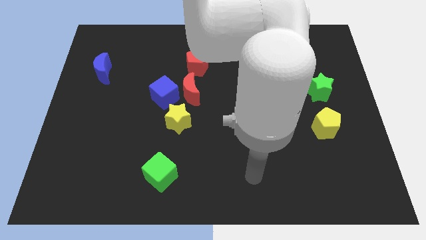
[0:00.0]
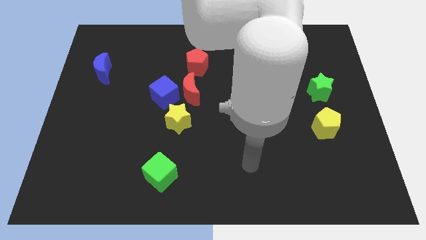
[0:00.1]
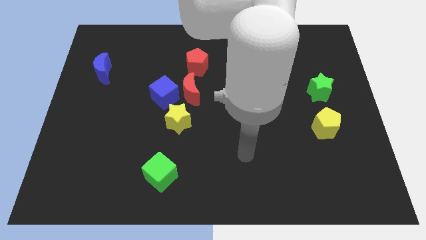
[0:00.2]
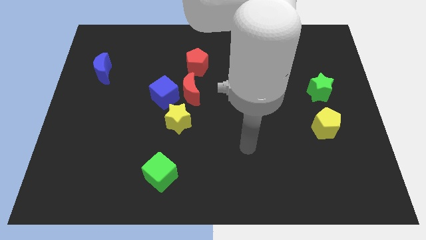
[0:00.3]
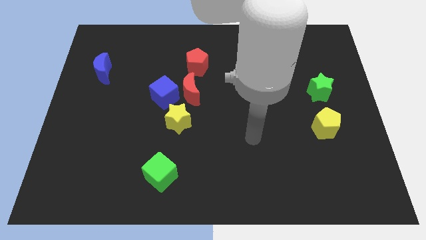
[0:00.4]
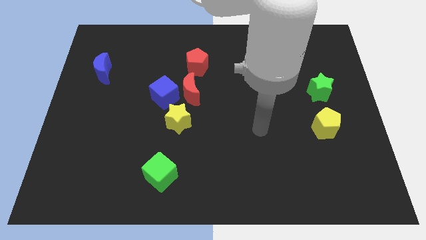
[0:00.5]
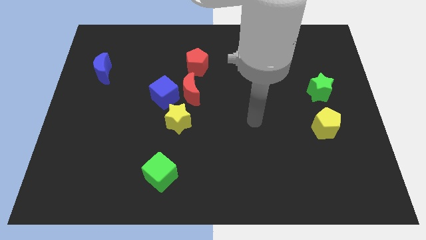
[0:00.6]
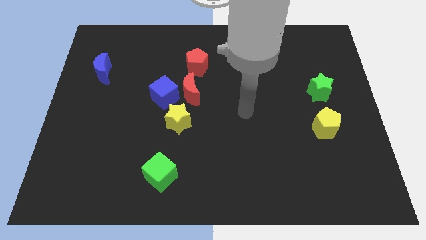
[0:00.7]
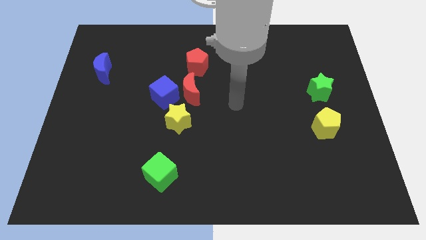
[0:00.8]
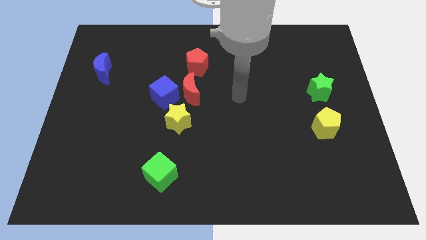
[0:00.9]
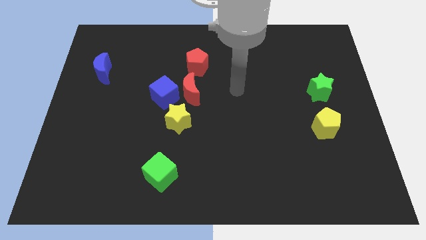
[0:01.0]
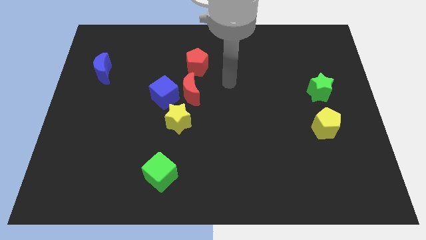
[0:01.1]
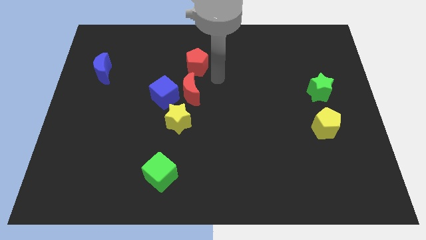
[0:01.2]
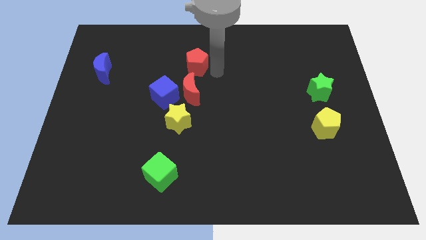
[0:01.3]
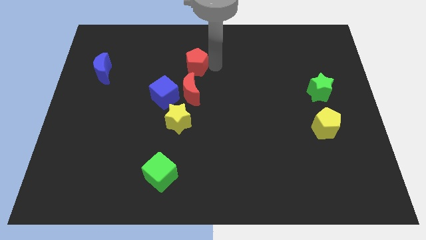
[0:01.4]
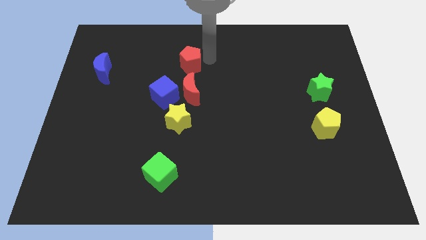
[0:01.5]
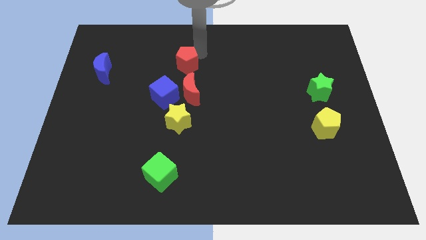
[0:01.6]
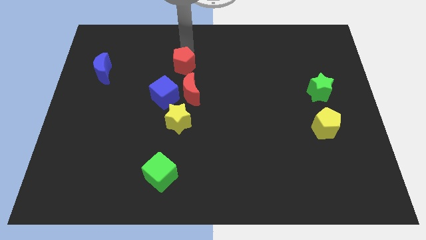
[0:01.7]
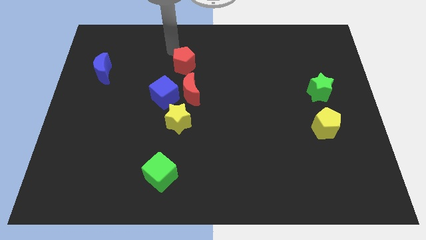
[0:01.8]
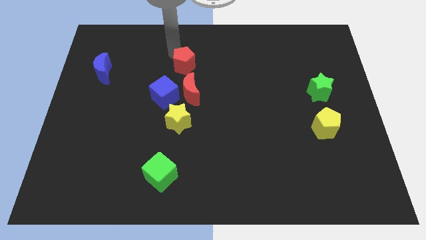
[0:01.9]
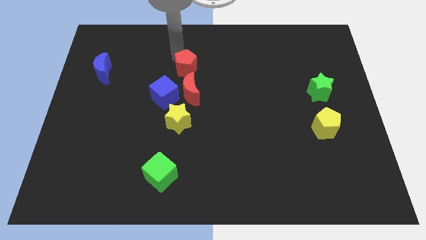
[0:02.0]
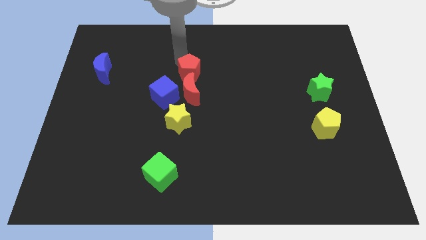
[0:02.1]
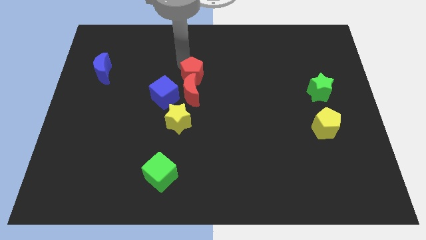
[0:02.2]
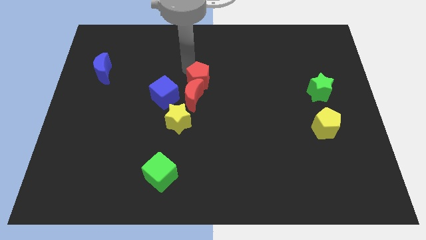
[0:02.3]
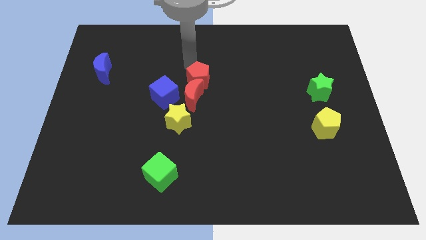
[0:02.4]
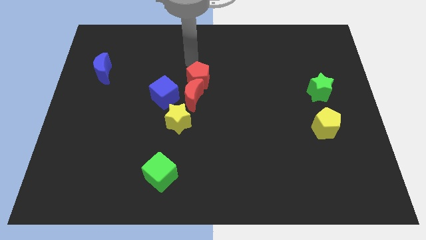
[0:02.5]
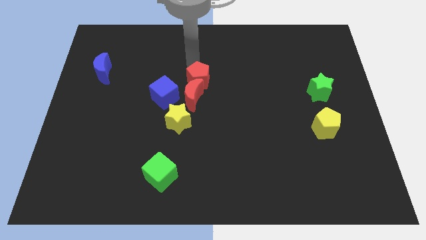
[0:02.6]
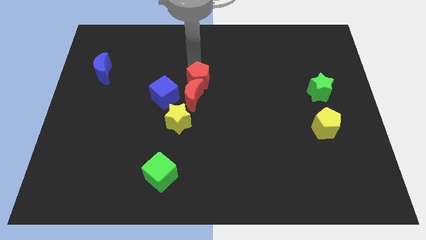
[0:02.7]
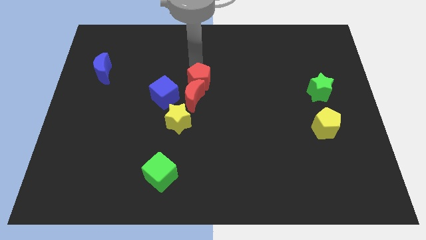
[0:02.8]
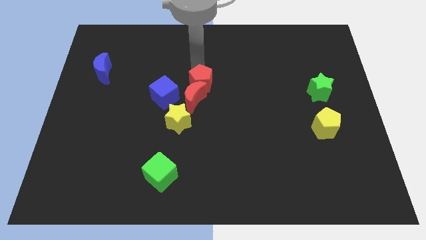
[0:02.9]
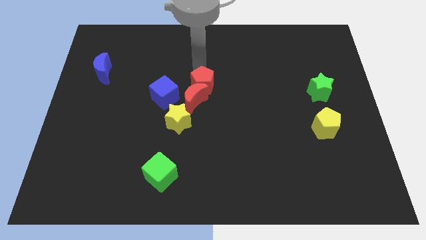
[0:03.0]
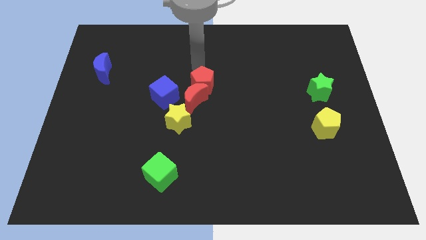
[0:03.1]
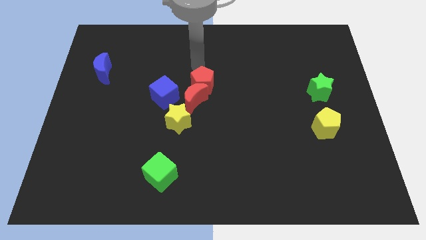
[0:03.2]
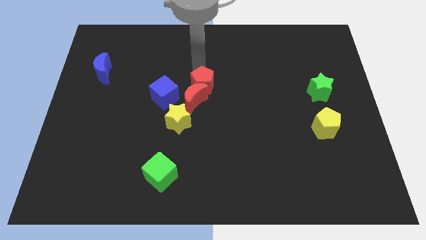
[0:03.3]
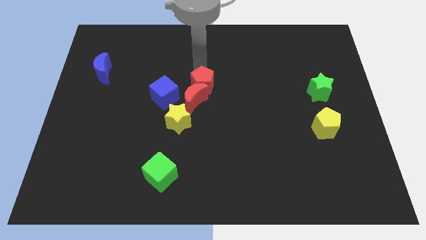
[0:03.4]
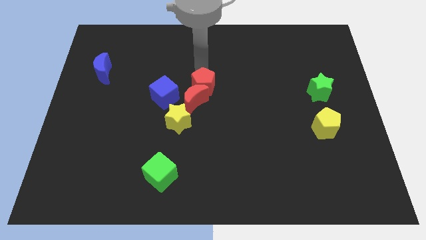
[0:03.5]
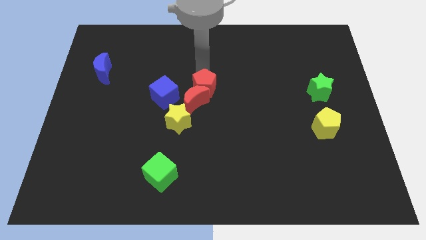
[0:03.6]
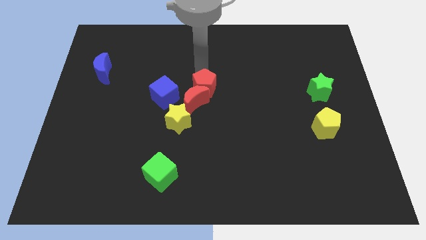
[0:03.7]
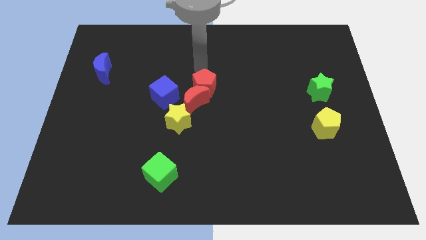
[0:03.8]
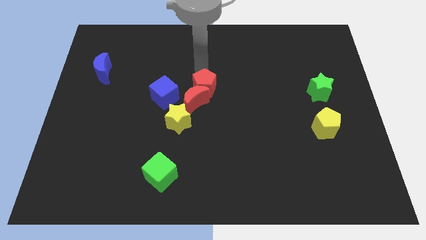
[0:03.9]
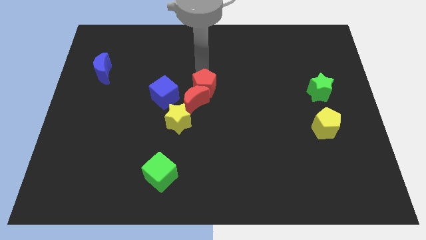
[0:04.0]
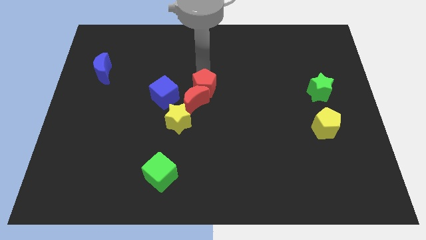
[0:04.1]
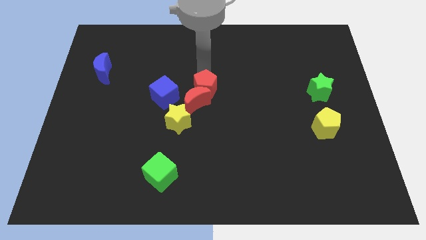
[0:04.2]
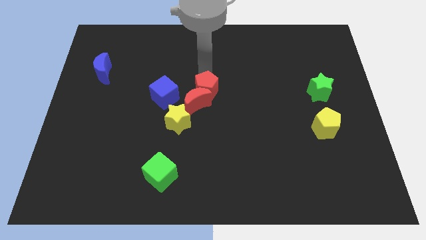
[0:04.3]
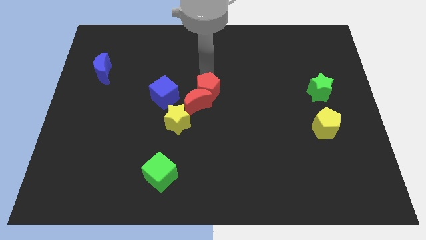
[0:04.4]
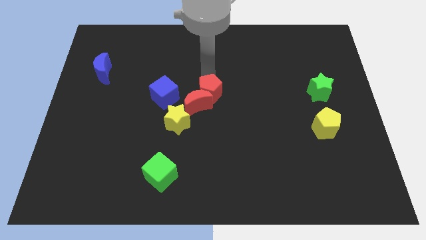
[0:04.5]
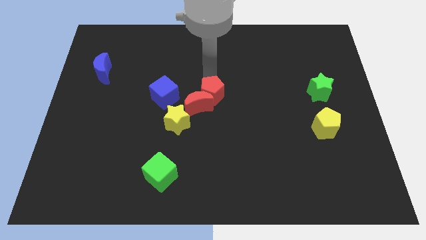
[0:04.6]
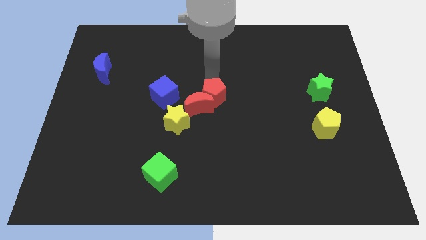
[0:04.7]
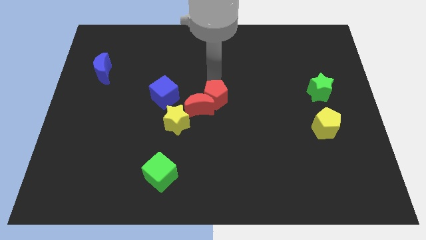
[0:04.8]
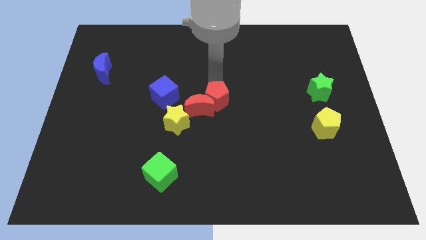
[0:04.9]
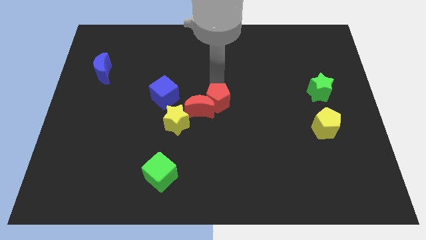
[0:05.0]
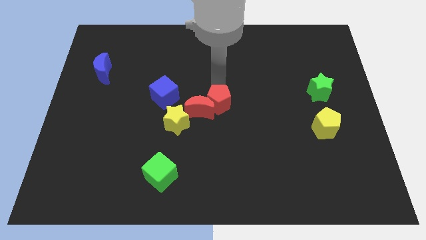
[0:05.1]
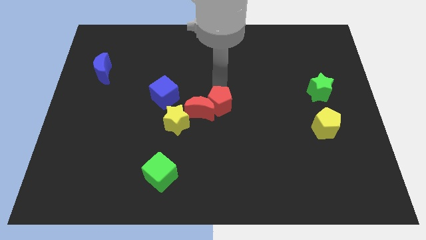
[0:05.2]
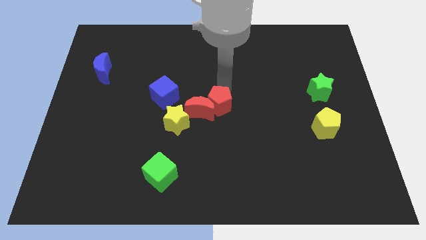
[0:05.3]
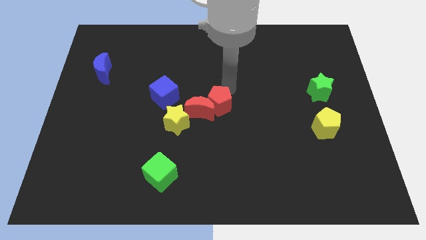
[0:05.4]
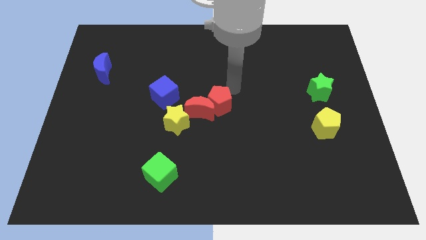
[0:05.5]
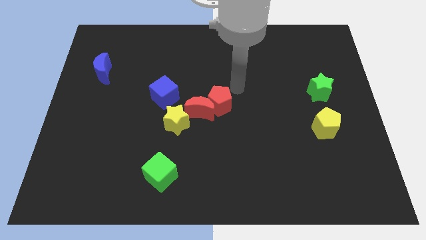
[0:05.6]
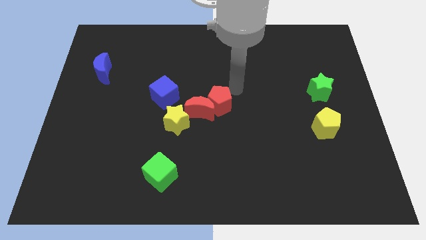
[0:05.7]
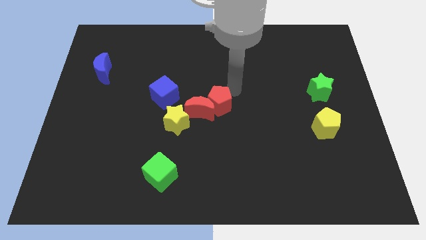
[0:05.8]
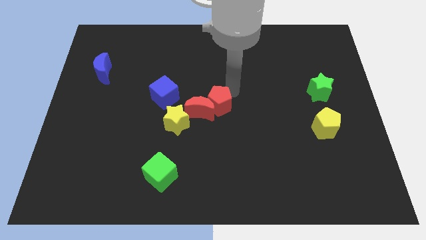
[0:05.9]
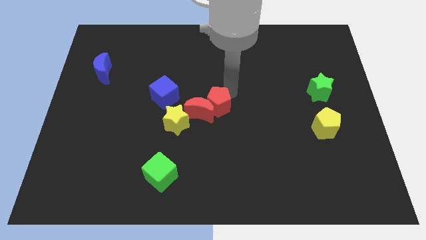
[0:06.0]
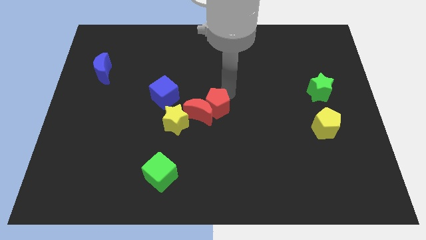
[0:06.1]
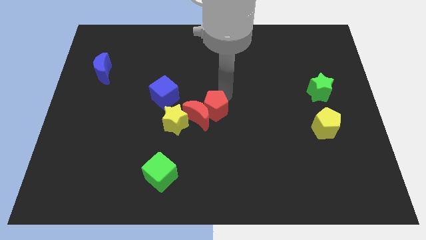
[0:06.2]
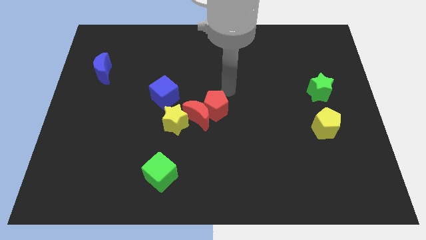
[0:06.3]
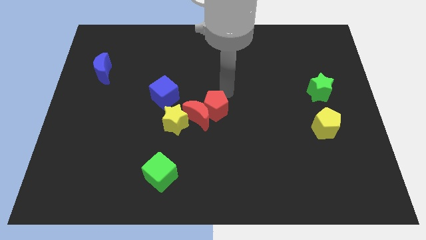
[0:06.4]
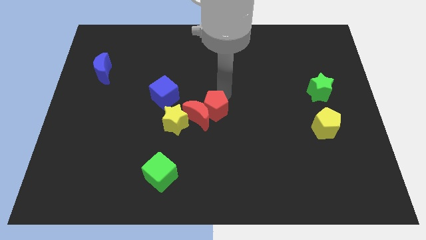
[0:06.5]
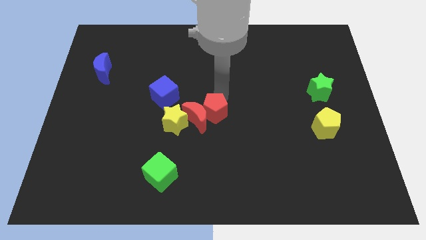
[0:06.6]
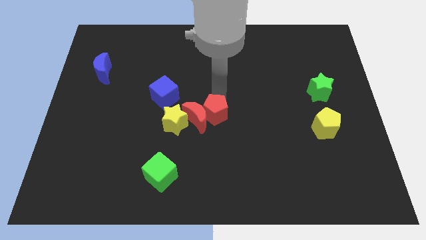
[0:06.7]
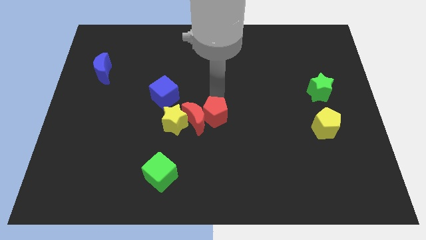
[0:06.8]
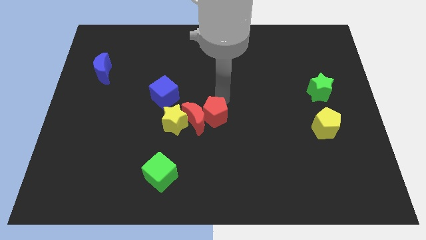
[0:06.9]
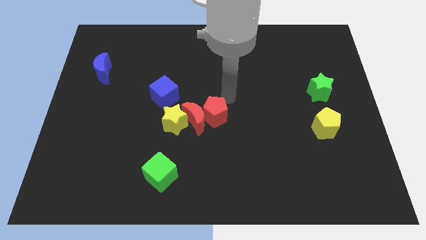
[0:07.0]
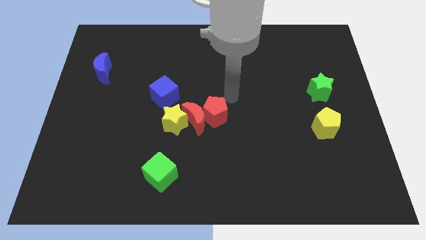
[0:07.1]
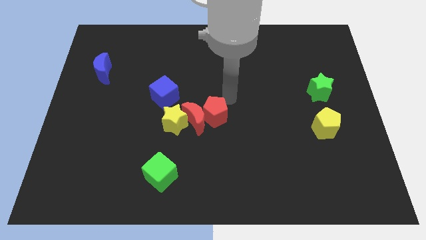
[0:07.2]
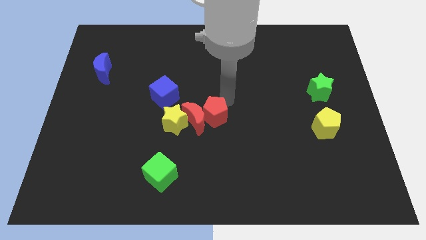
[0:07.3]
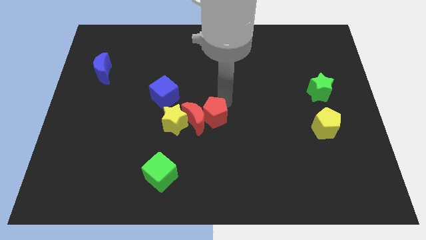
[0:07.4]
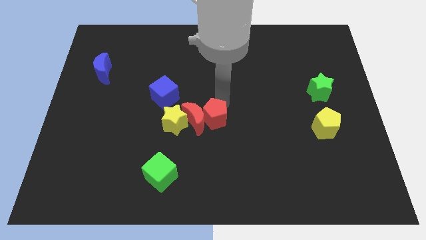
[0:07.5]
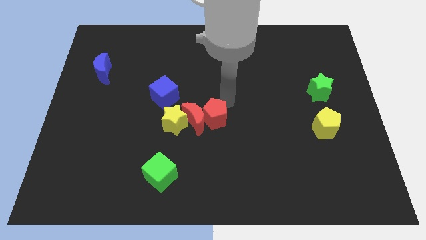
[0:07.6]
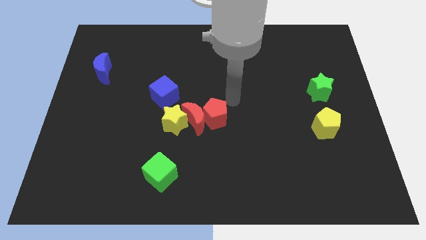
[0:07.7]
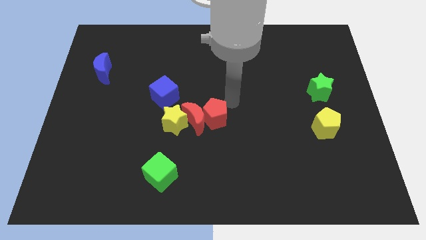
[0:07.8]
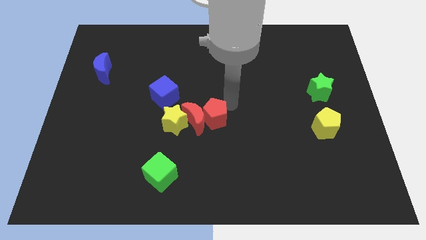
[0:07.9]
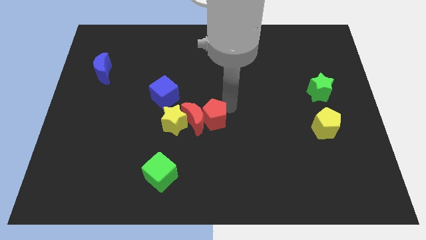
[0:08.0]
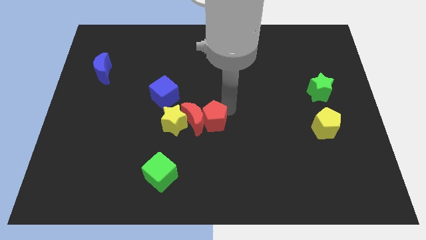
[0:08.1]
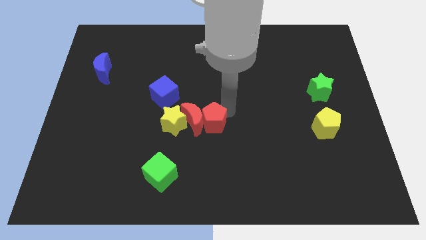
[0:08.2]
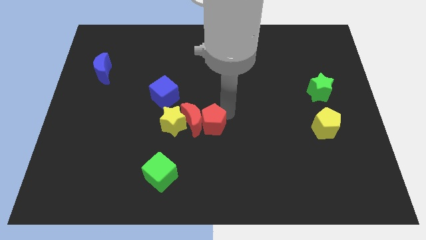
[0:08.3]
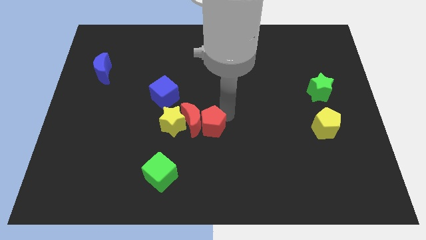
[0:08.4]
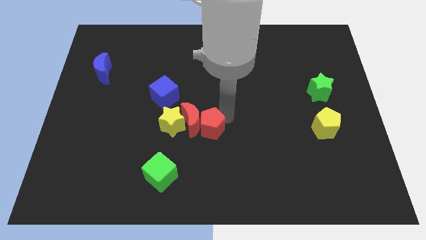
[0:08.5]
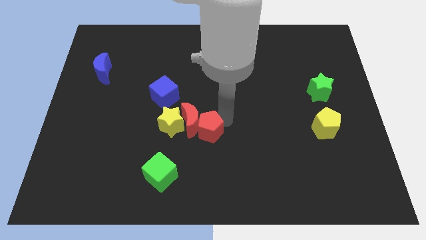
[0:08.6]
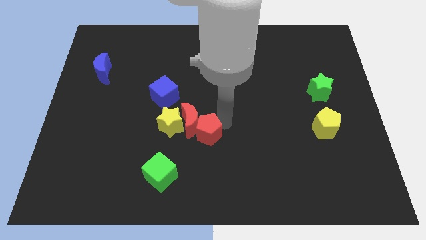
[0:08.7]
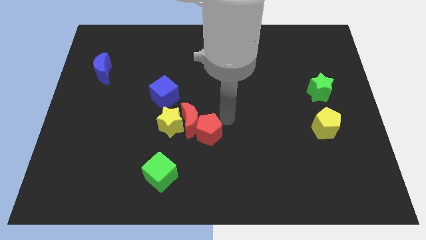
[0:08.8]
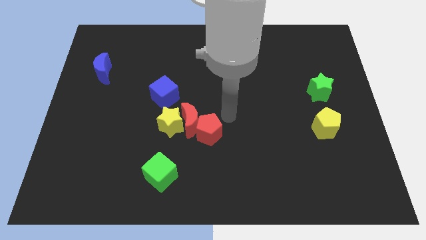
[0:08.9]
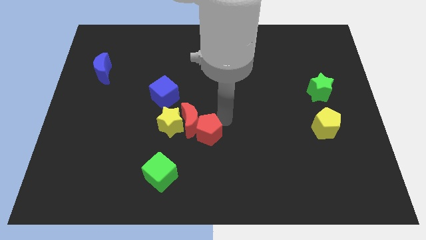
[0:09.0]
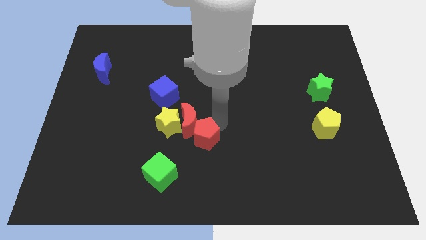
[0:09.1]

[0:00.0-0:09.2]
slide the red pentagon diagonally up and to the right of the green cube
